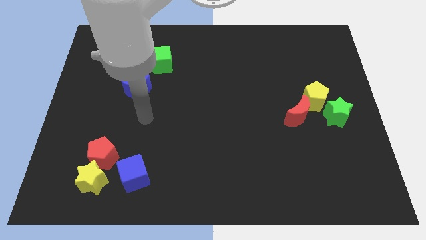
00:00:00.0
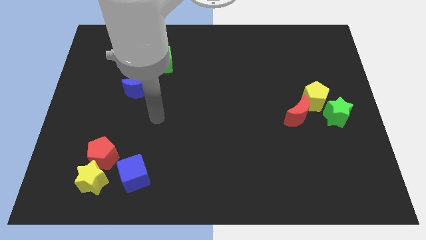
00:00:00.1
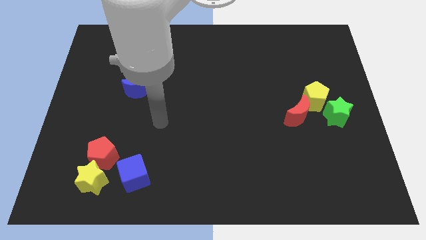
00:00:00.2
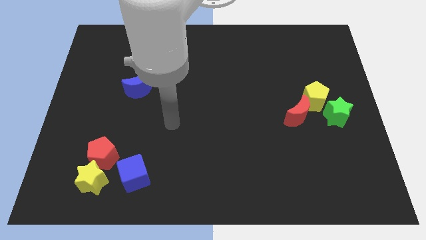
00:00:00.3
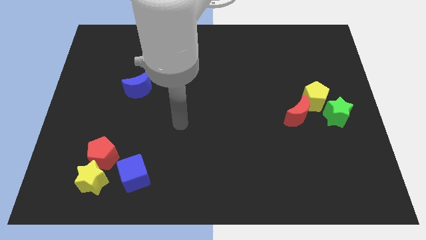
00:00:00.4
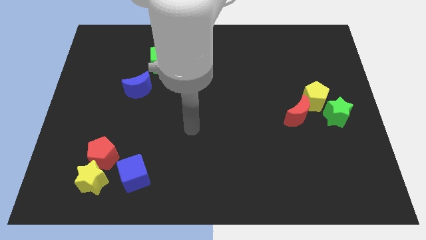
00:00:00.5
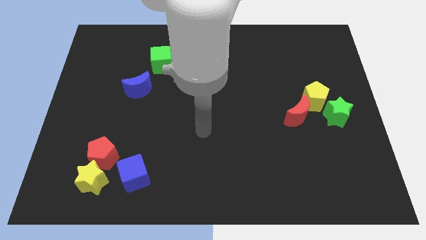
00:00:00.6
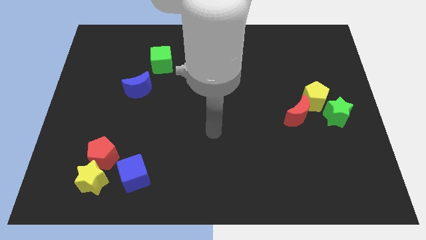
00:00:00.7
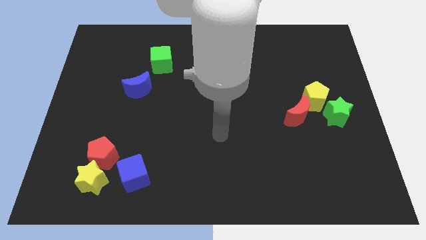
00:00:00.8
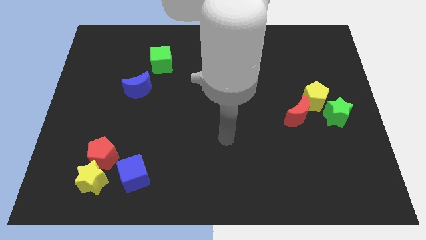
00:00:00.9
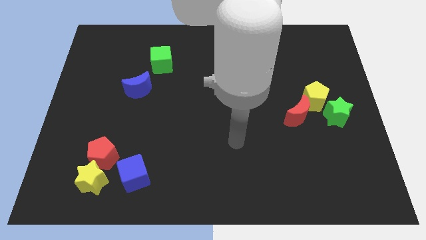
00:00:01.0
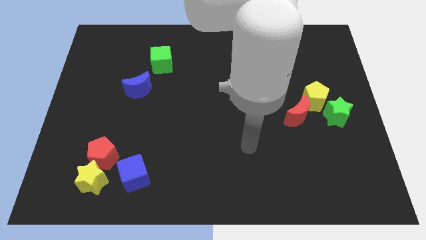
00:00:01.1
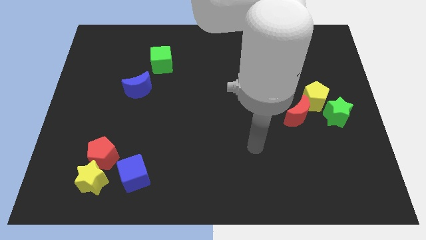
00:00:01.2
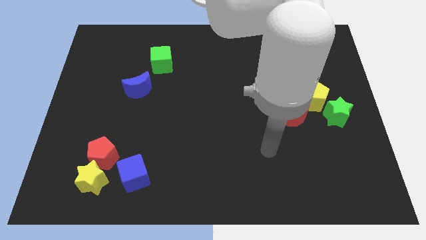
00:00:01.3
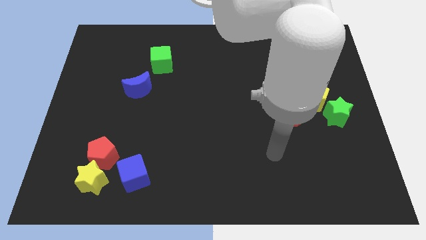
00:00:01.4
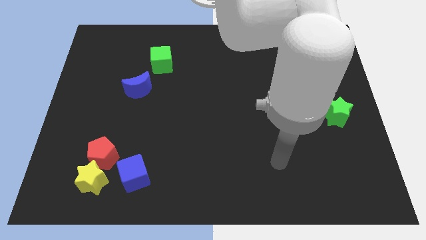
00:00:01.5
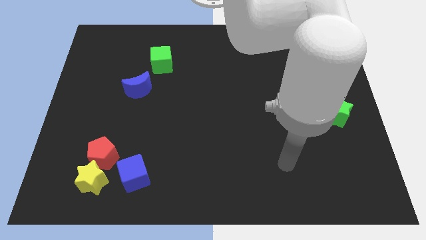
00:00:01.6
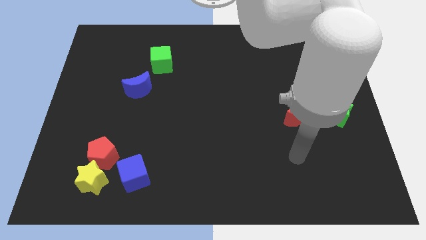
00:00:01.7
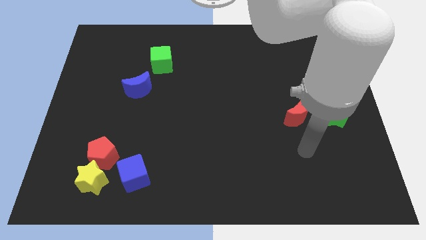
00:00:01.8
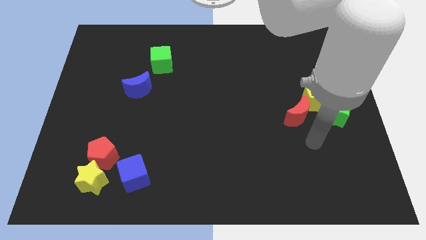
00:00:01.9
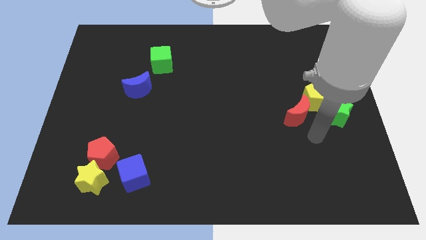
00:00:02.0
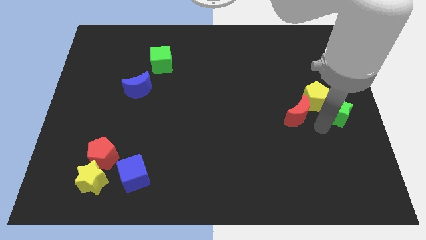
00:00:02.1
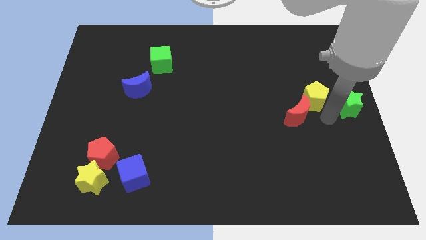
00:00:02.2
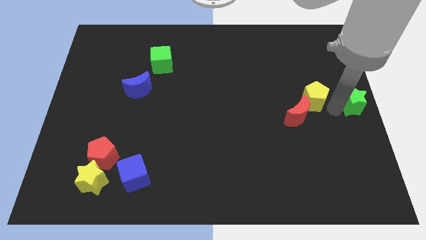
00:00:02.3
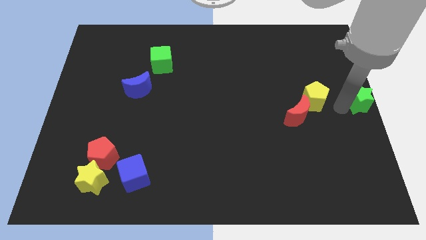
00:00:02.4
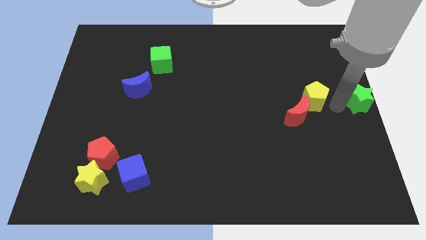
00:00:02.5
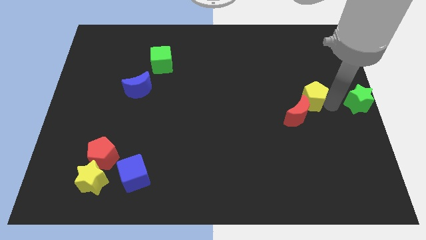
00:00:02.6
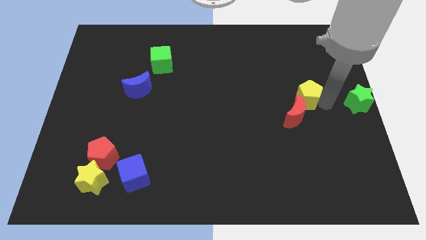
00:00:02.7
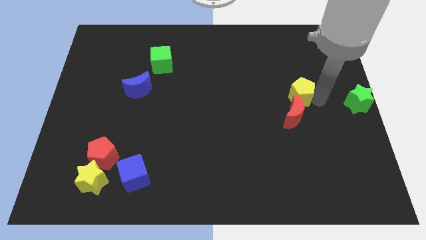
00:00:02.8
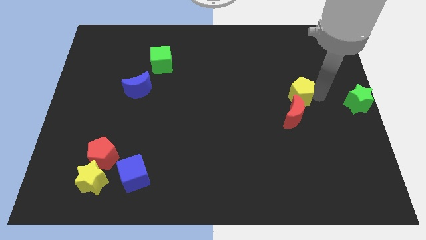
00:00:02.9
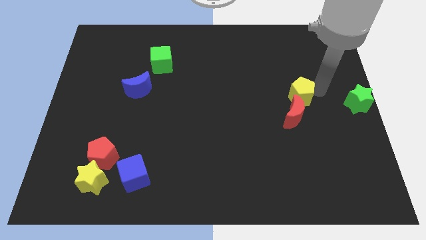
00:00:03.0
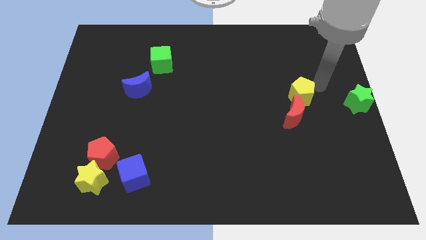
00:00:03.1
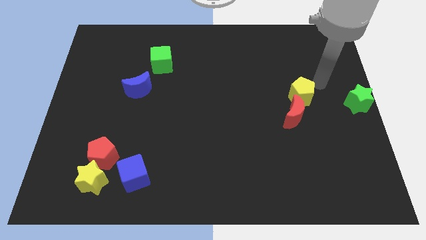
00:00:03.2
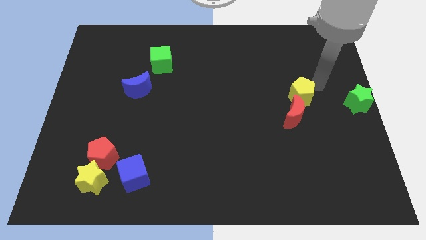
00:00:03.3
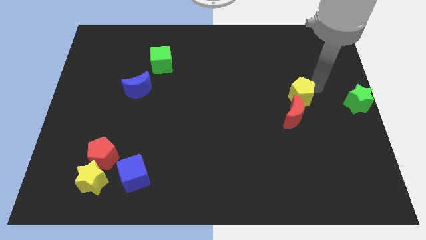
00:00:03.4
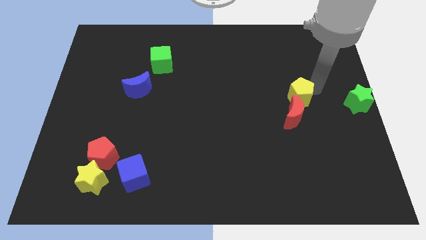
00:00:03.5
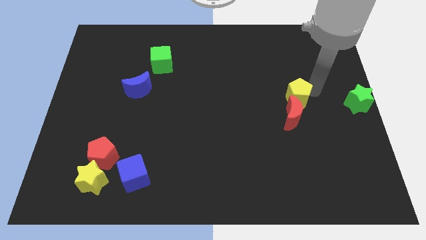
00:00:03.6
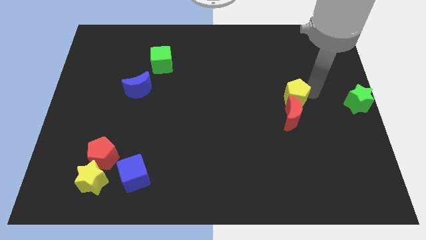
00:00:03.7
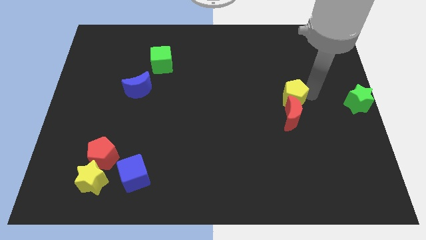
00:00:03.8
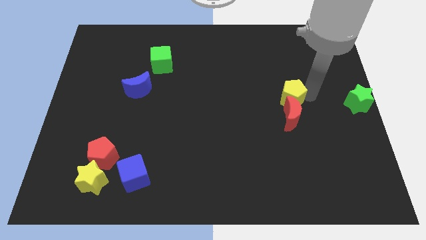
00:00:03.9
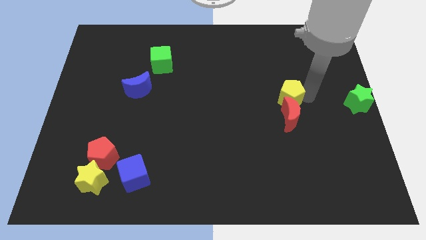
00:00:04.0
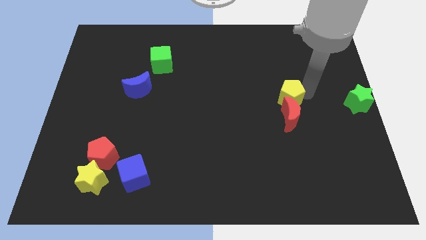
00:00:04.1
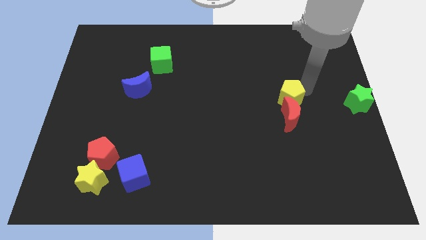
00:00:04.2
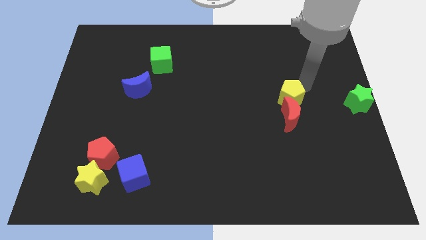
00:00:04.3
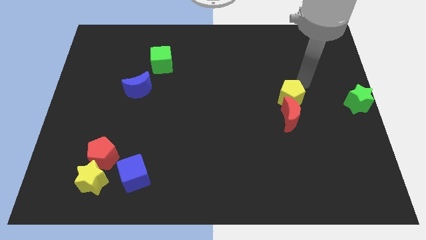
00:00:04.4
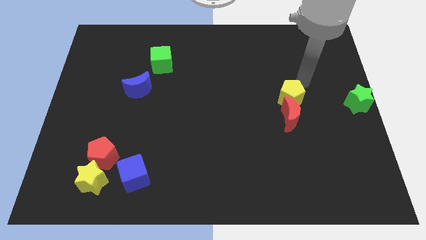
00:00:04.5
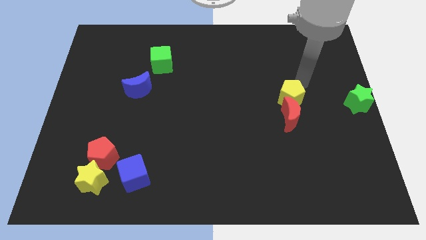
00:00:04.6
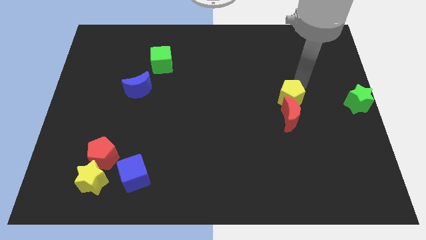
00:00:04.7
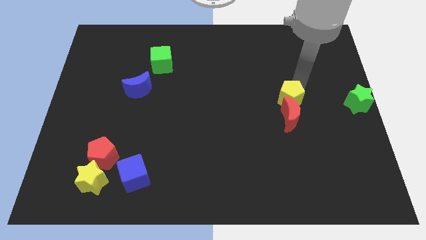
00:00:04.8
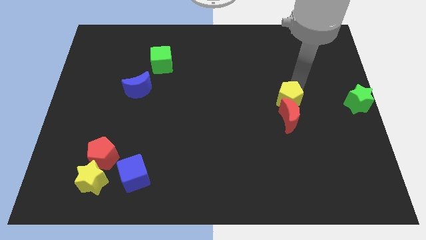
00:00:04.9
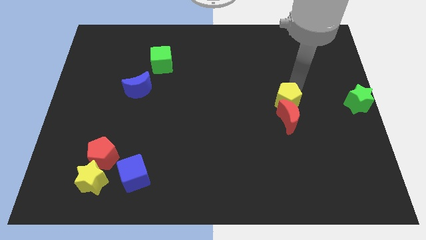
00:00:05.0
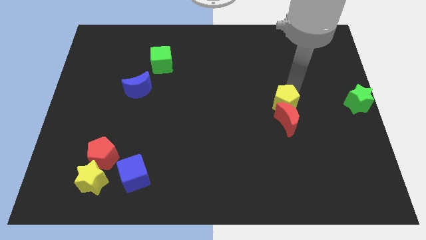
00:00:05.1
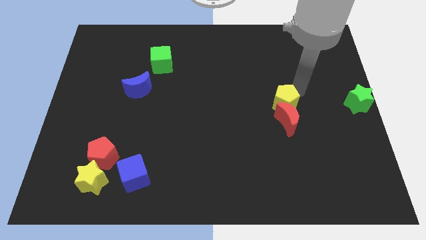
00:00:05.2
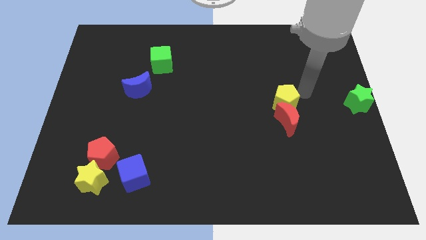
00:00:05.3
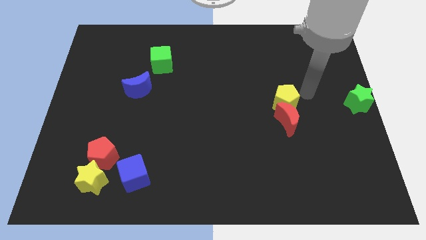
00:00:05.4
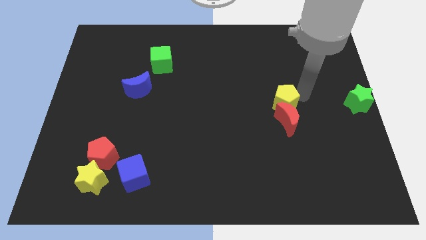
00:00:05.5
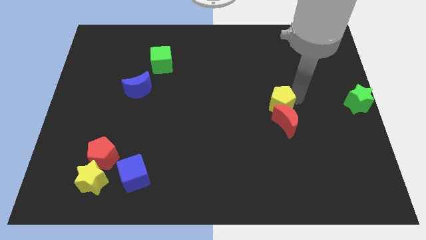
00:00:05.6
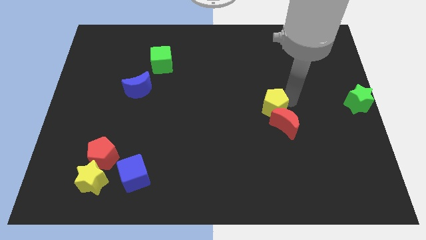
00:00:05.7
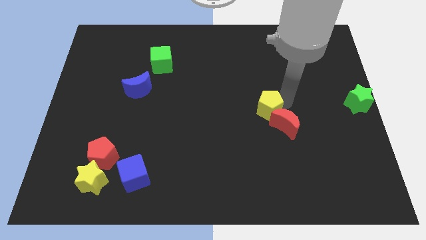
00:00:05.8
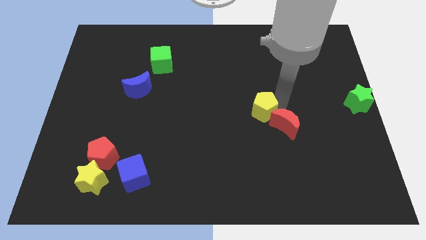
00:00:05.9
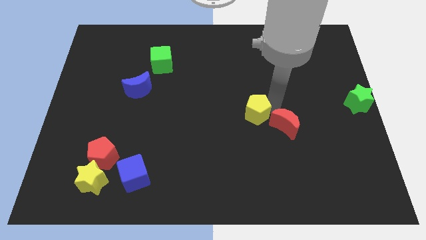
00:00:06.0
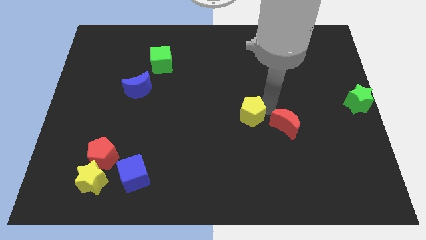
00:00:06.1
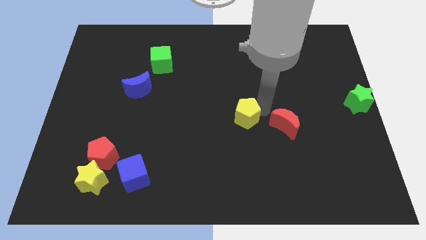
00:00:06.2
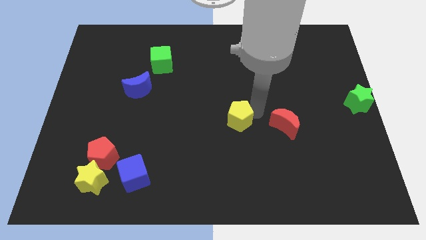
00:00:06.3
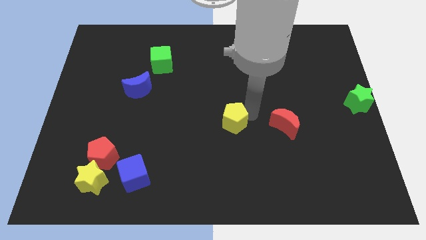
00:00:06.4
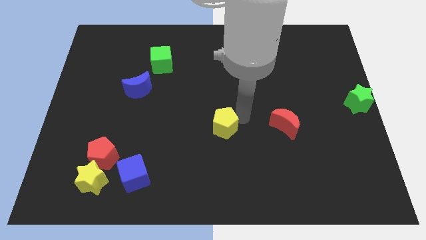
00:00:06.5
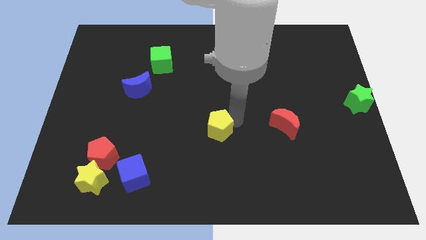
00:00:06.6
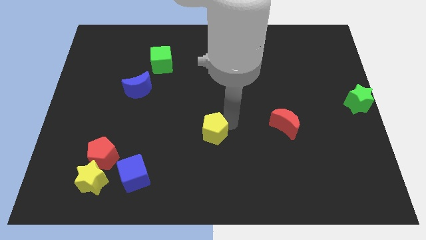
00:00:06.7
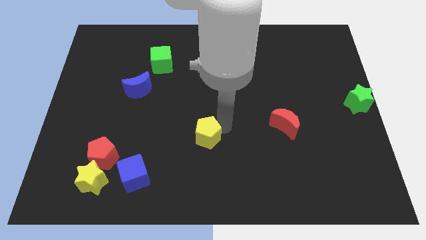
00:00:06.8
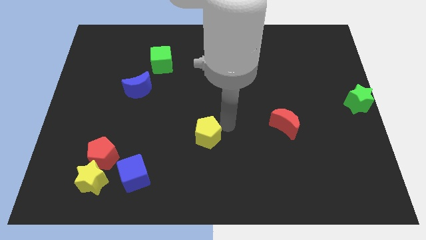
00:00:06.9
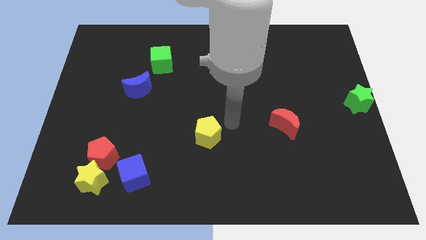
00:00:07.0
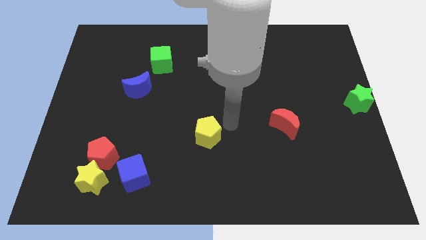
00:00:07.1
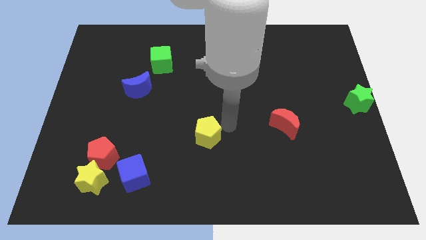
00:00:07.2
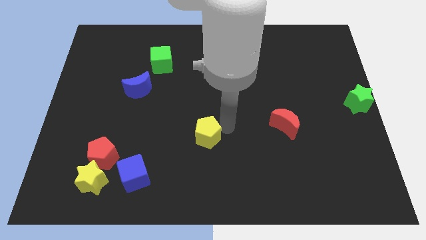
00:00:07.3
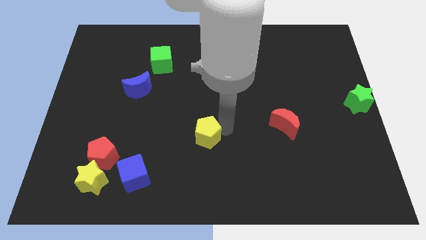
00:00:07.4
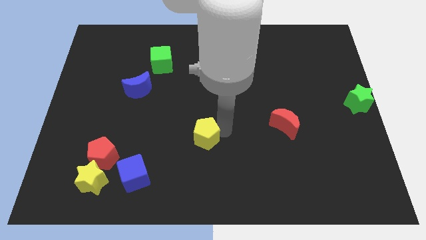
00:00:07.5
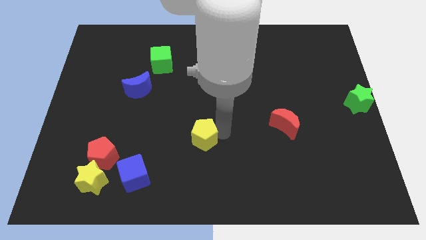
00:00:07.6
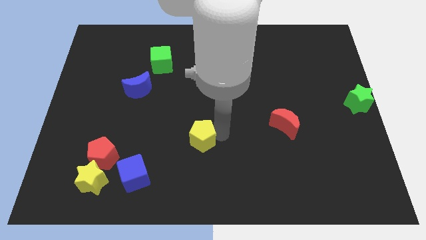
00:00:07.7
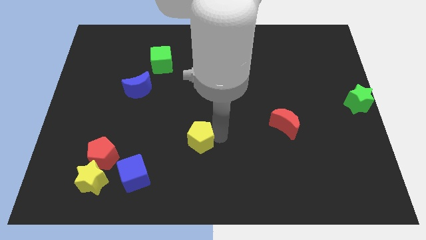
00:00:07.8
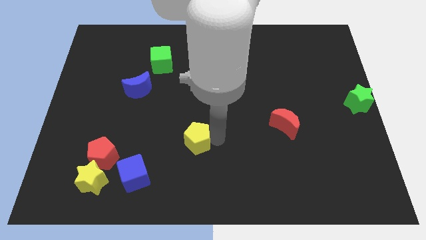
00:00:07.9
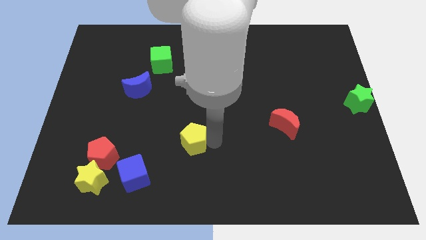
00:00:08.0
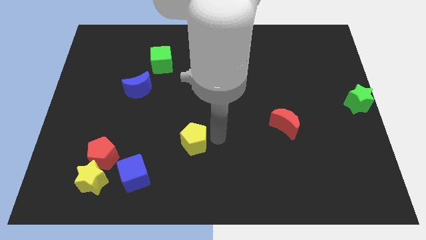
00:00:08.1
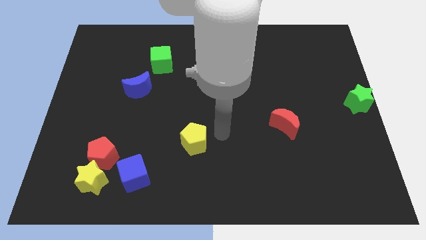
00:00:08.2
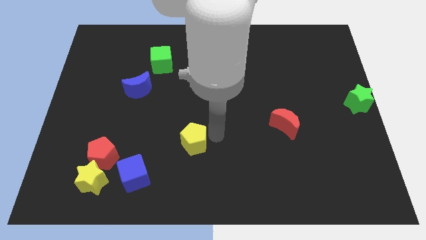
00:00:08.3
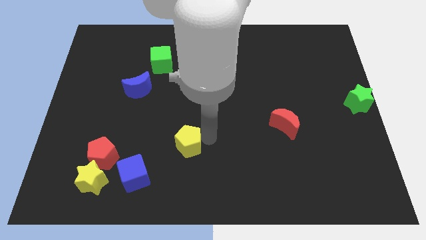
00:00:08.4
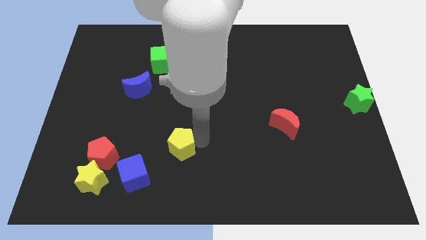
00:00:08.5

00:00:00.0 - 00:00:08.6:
slide the yellow pentagon diagonally up and to the right of the blue cube
